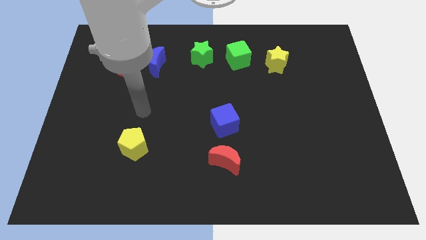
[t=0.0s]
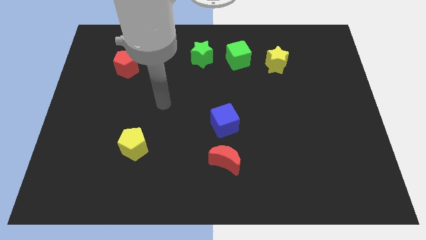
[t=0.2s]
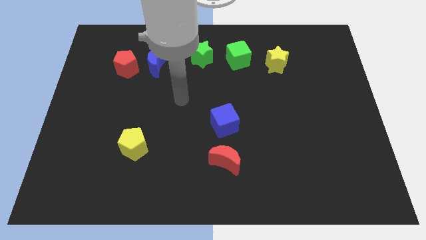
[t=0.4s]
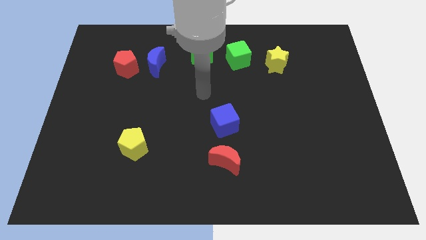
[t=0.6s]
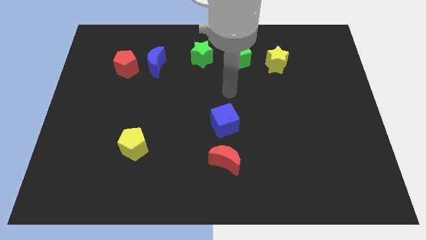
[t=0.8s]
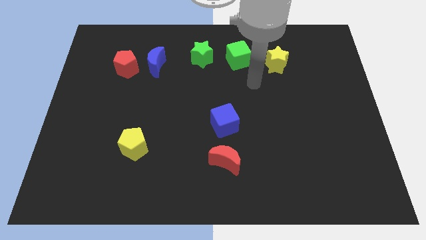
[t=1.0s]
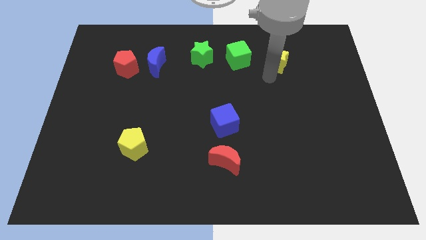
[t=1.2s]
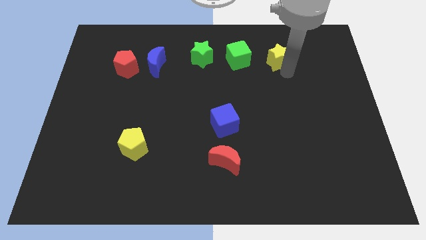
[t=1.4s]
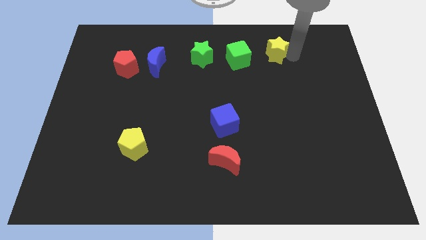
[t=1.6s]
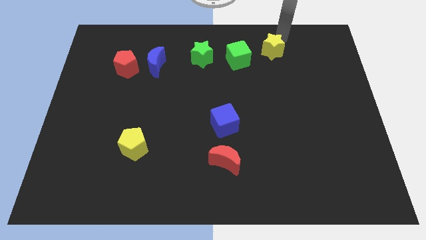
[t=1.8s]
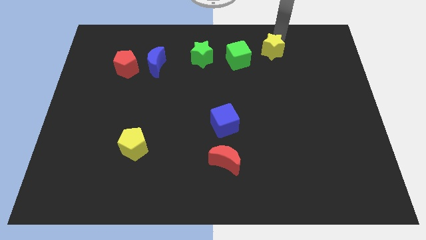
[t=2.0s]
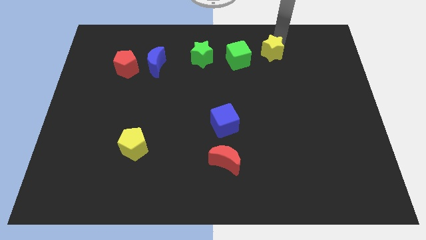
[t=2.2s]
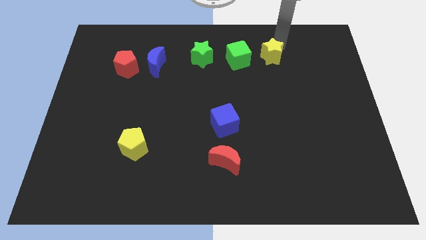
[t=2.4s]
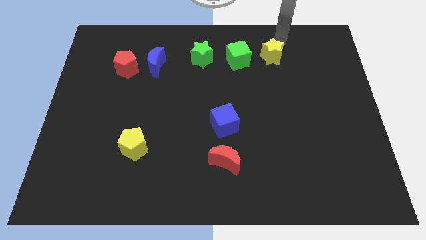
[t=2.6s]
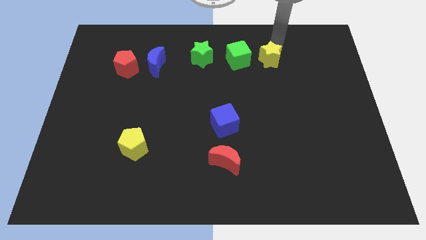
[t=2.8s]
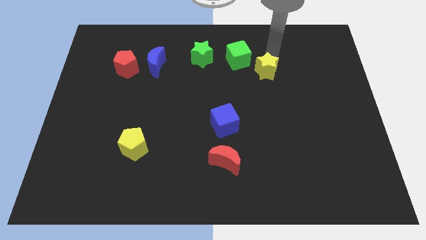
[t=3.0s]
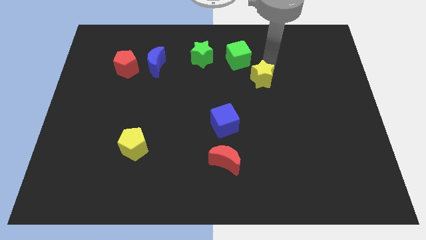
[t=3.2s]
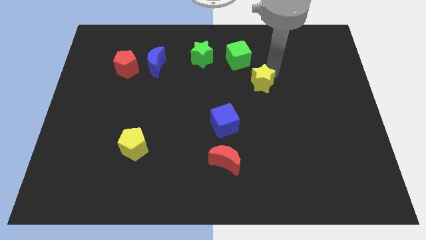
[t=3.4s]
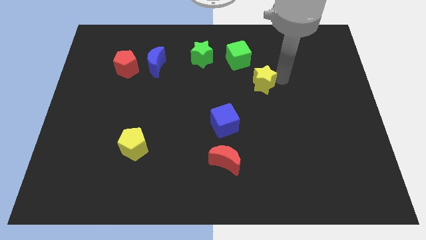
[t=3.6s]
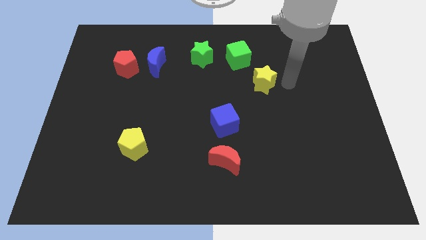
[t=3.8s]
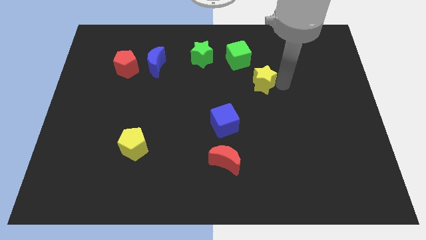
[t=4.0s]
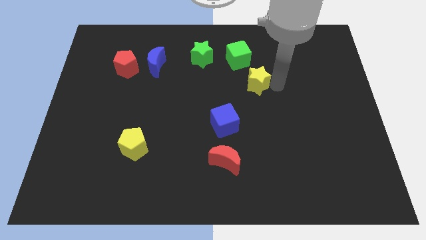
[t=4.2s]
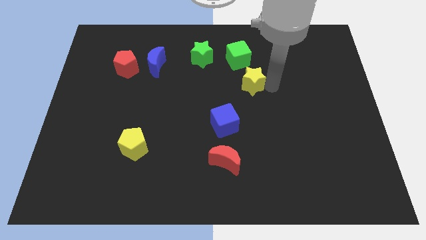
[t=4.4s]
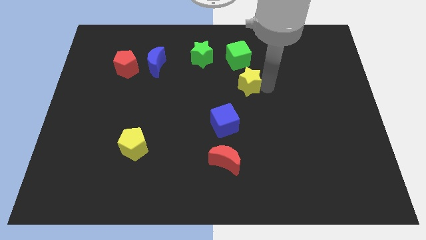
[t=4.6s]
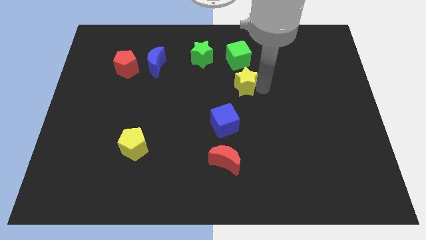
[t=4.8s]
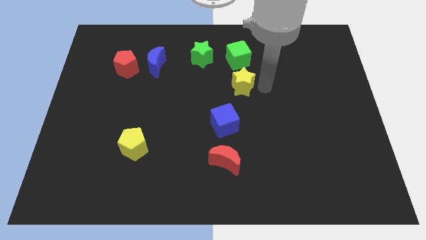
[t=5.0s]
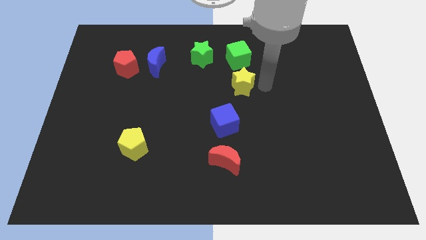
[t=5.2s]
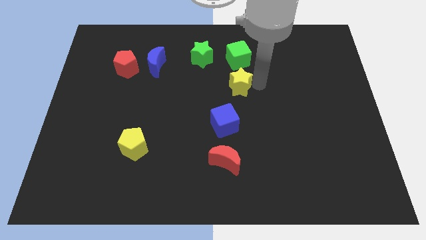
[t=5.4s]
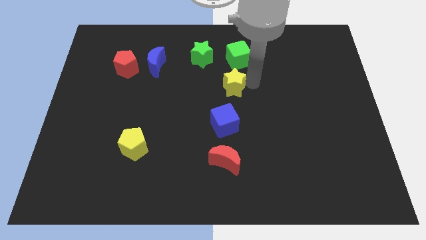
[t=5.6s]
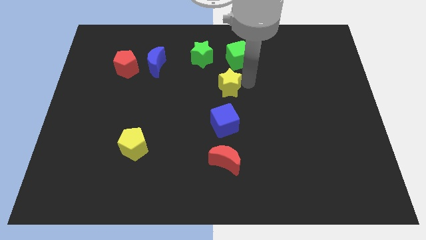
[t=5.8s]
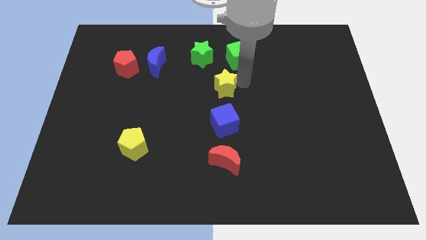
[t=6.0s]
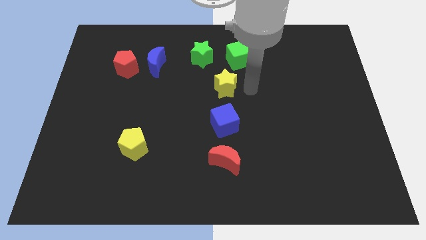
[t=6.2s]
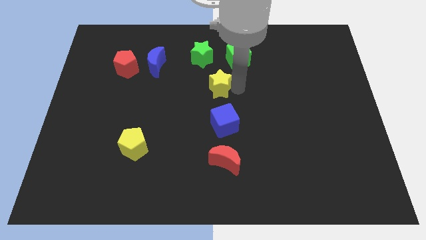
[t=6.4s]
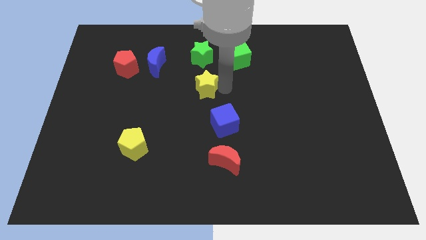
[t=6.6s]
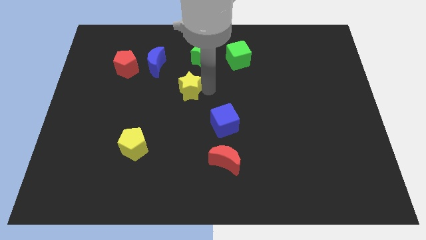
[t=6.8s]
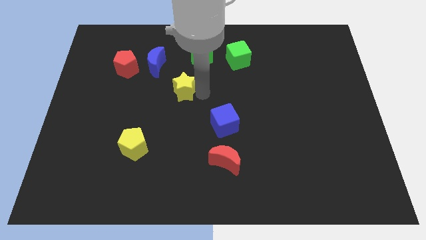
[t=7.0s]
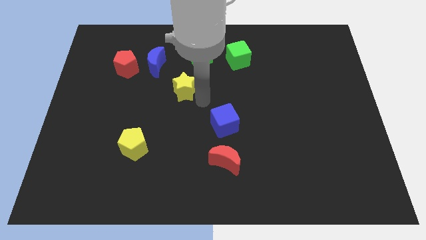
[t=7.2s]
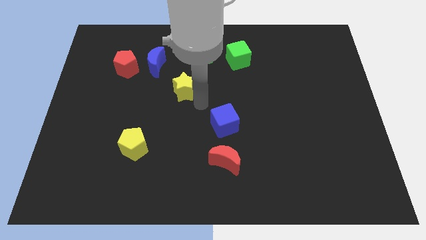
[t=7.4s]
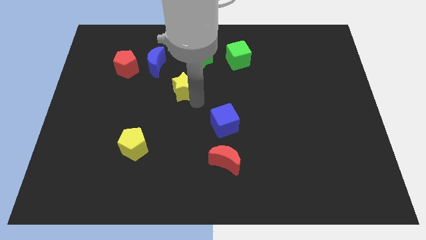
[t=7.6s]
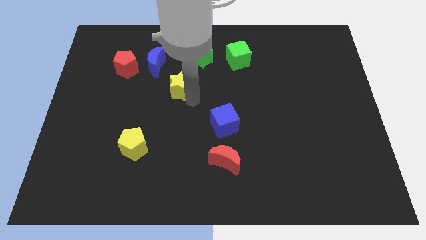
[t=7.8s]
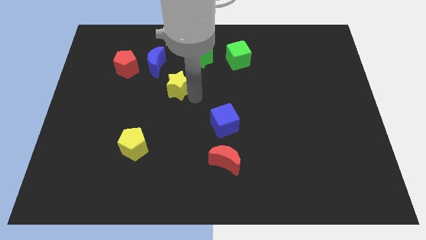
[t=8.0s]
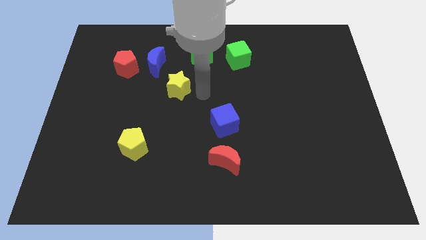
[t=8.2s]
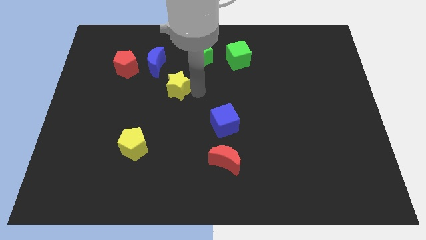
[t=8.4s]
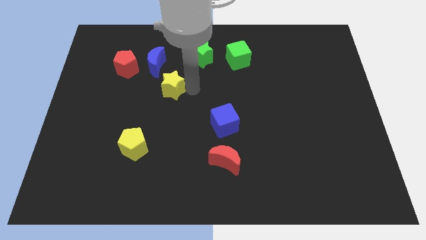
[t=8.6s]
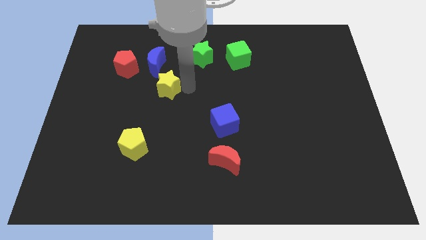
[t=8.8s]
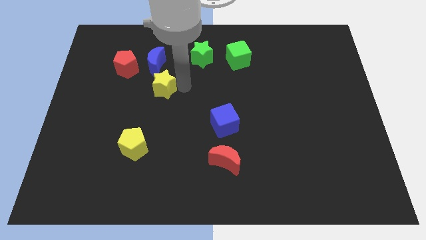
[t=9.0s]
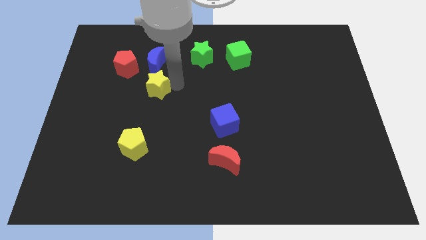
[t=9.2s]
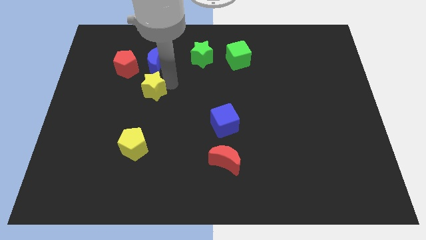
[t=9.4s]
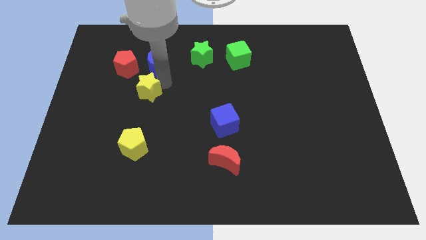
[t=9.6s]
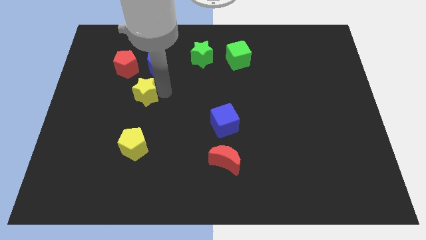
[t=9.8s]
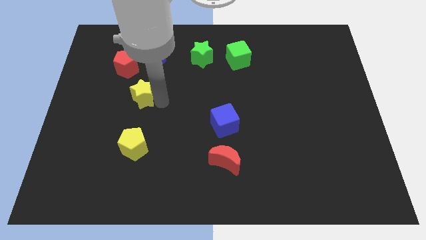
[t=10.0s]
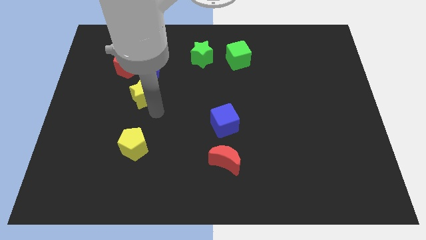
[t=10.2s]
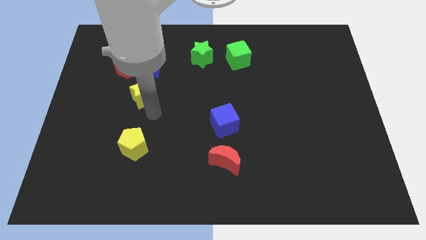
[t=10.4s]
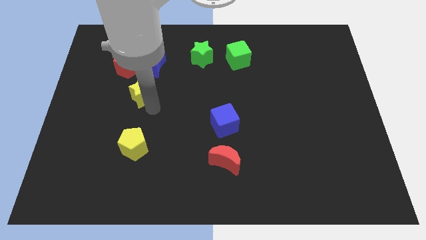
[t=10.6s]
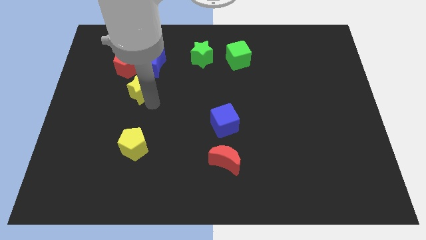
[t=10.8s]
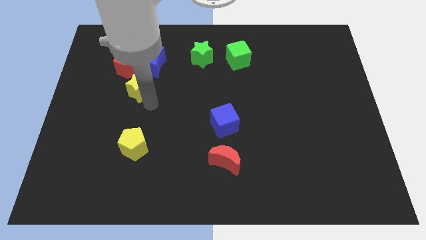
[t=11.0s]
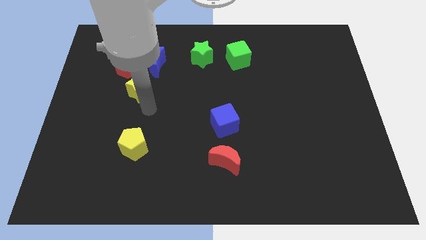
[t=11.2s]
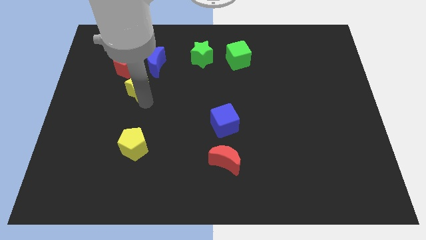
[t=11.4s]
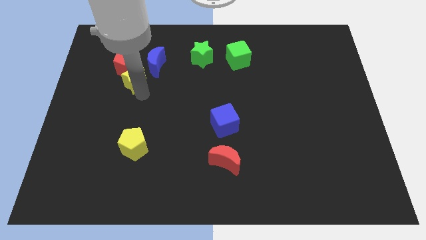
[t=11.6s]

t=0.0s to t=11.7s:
move the yellow star towards the red pentagon

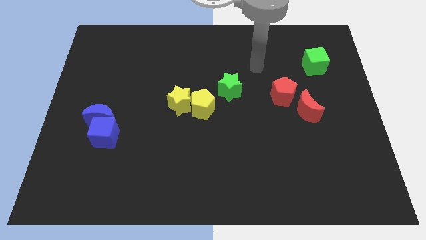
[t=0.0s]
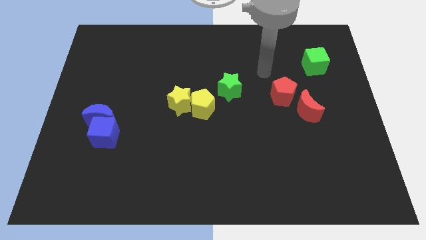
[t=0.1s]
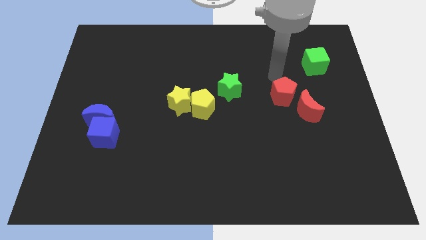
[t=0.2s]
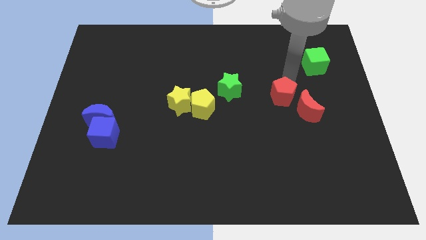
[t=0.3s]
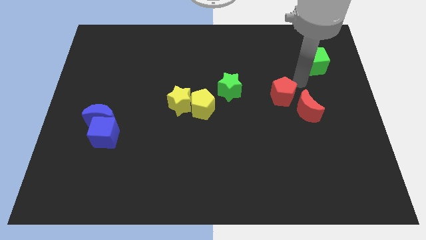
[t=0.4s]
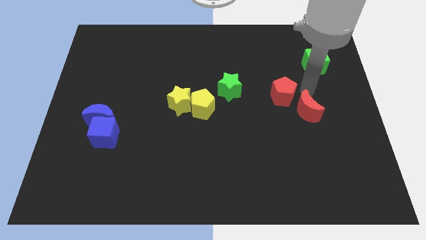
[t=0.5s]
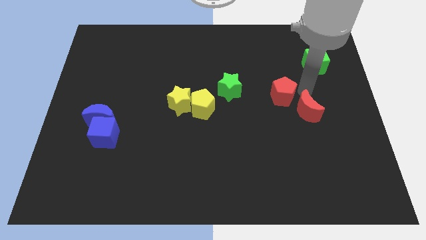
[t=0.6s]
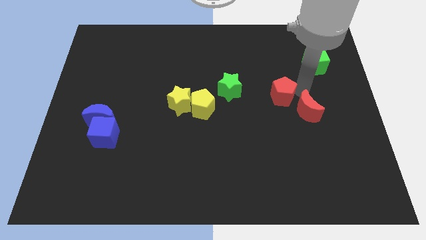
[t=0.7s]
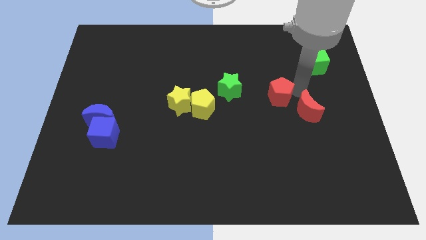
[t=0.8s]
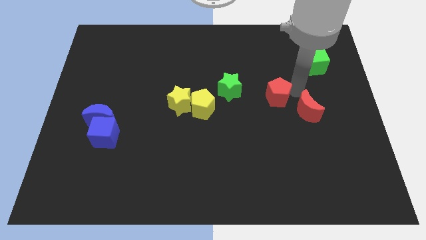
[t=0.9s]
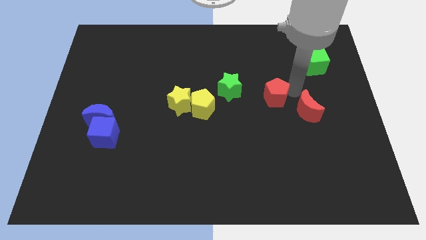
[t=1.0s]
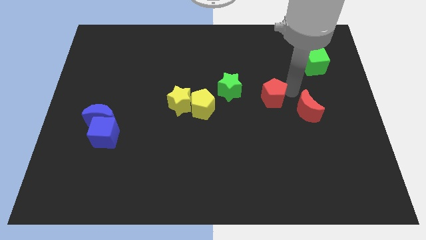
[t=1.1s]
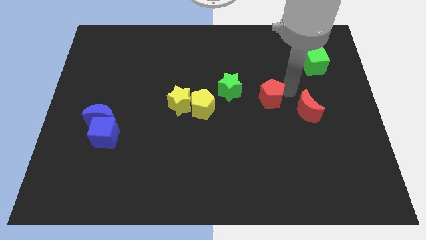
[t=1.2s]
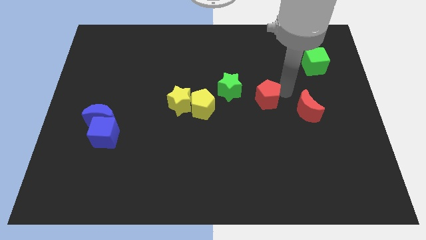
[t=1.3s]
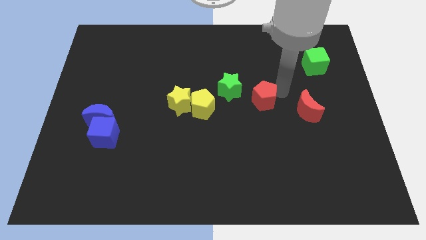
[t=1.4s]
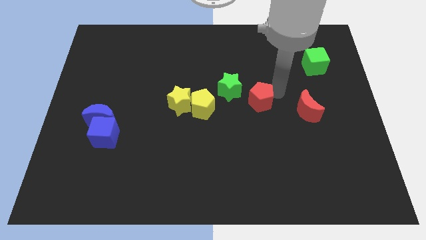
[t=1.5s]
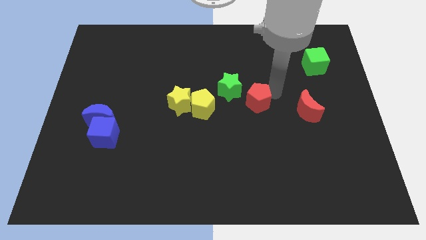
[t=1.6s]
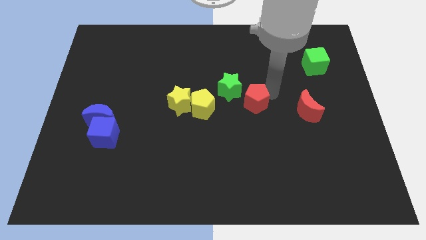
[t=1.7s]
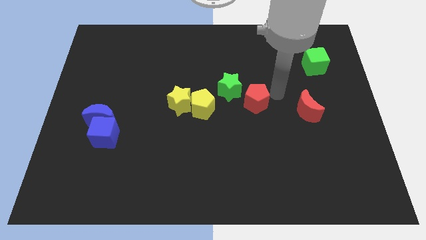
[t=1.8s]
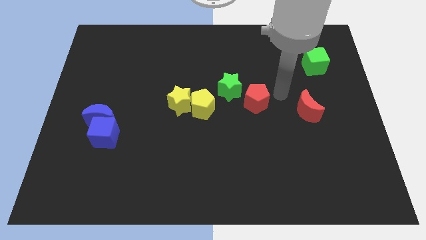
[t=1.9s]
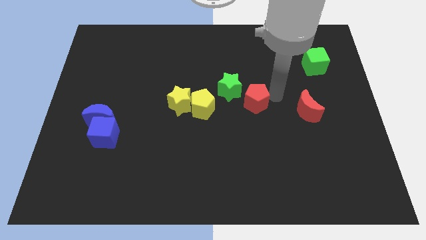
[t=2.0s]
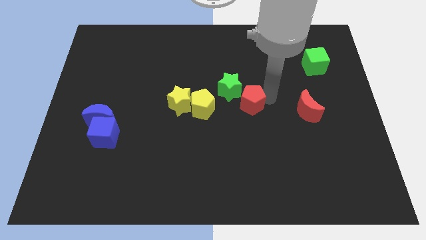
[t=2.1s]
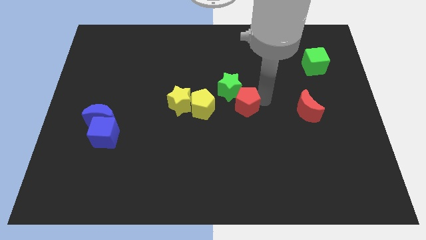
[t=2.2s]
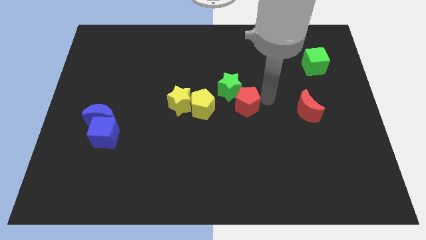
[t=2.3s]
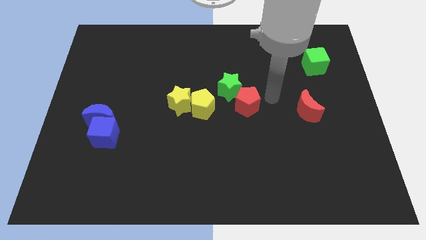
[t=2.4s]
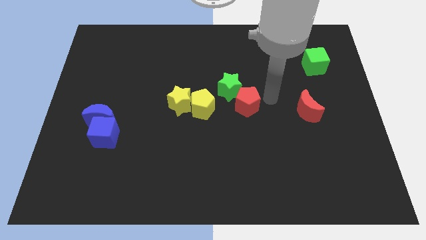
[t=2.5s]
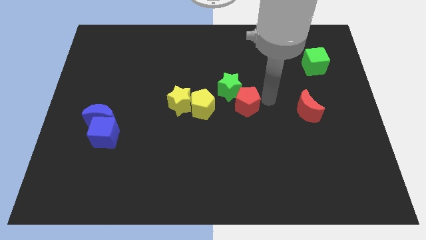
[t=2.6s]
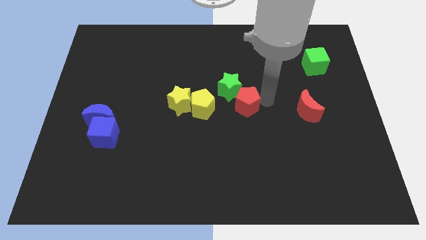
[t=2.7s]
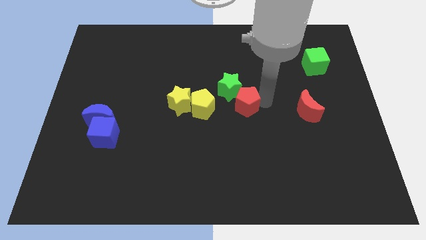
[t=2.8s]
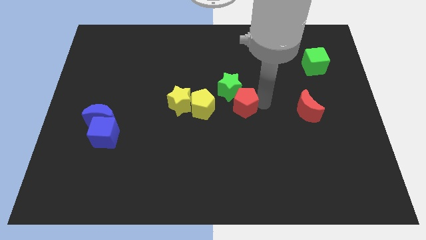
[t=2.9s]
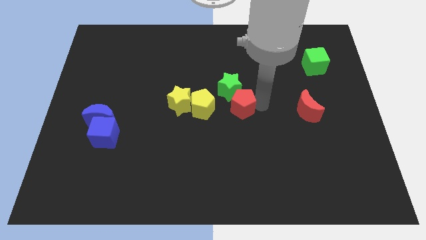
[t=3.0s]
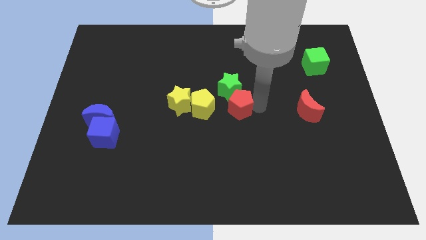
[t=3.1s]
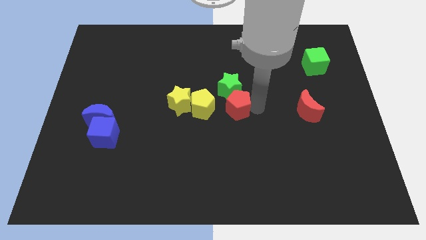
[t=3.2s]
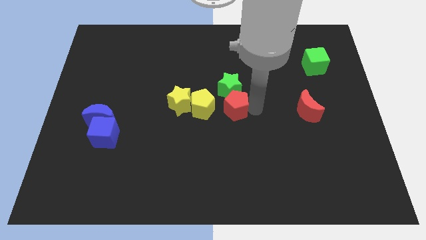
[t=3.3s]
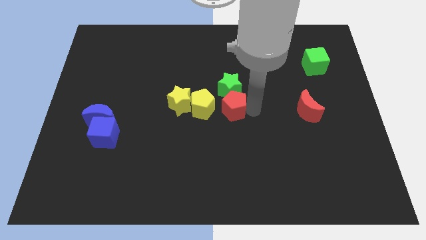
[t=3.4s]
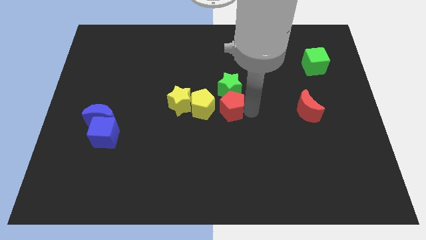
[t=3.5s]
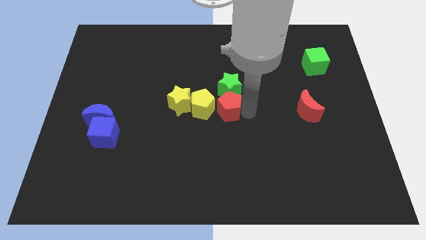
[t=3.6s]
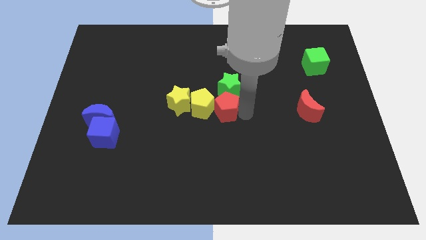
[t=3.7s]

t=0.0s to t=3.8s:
slide the red pentagon towards the yellow pentagon
